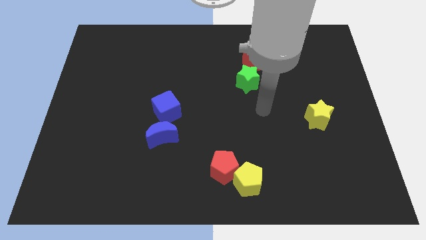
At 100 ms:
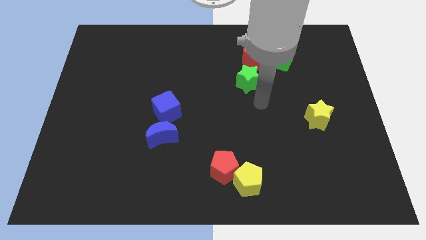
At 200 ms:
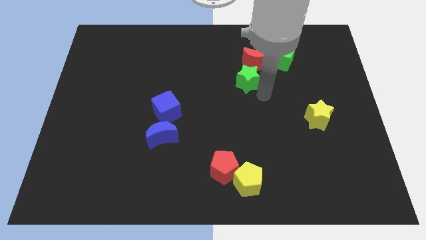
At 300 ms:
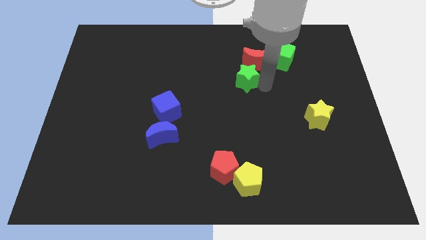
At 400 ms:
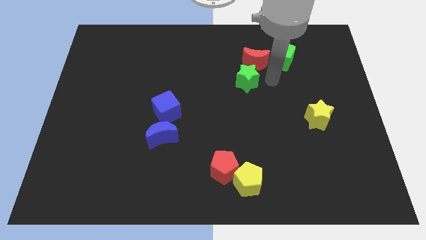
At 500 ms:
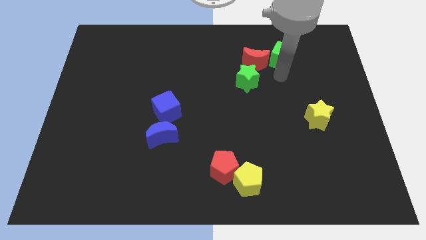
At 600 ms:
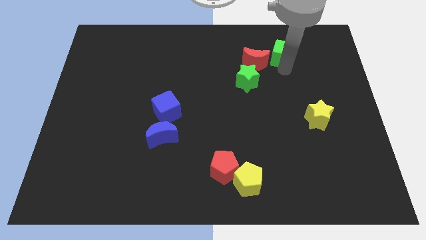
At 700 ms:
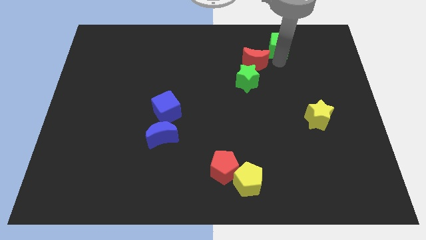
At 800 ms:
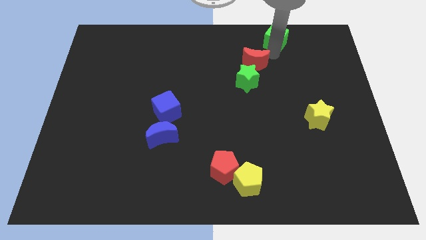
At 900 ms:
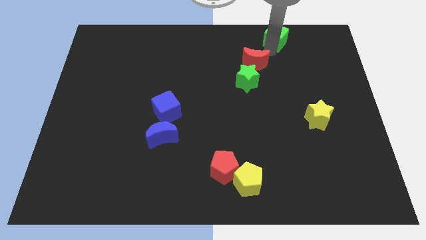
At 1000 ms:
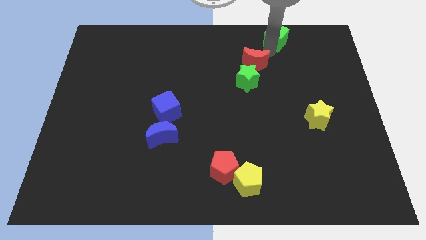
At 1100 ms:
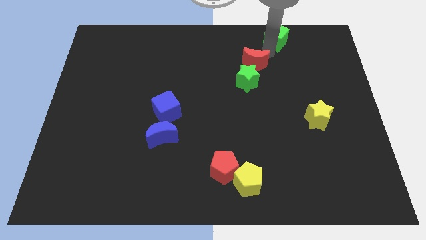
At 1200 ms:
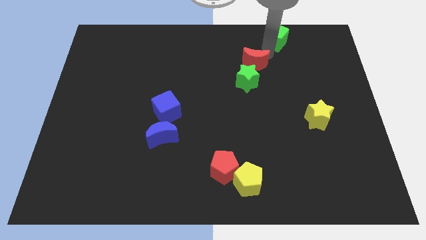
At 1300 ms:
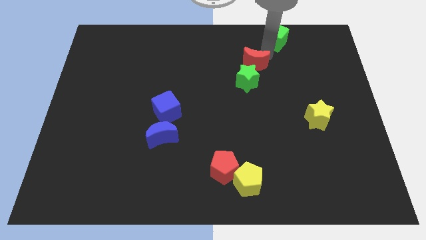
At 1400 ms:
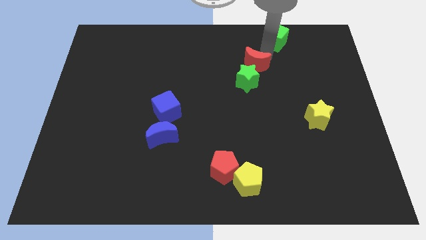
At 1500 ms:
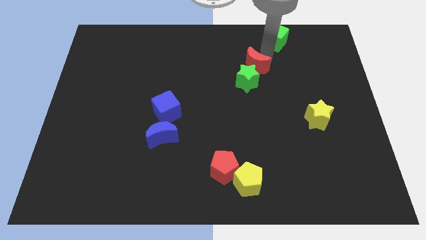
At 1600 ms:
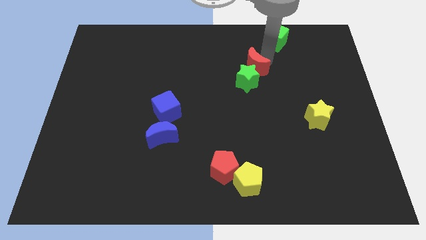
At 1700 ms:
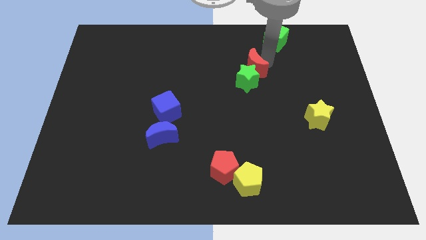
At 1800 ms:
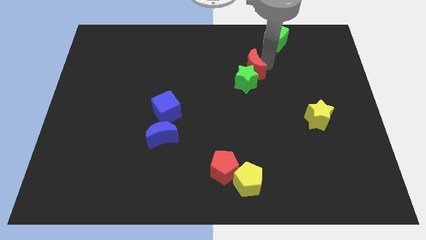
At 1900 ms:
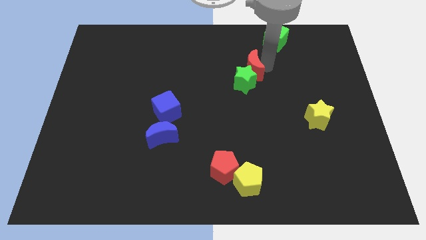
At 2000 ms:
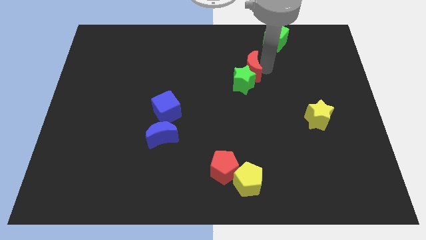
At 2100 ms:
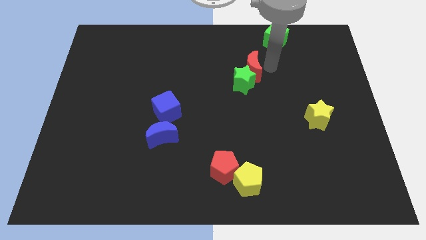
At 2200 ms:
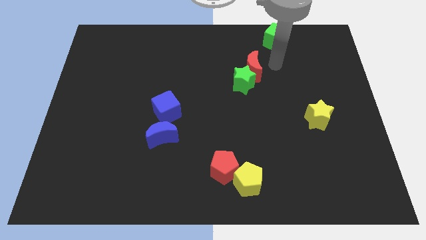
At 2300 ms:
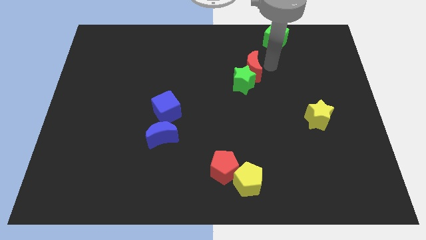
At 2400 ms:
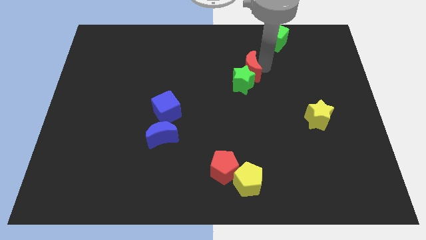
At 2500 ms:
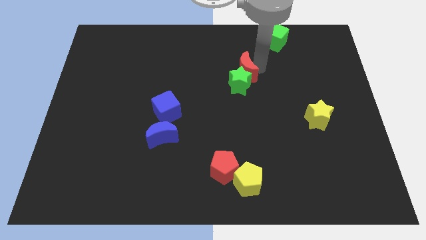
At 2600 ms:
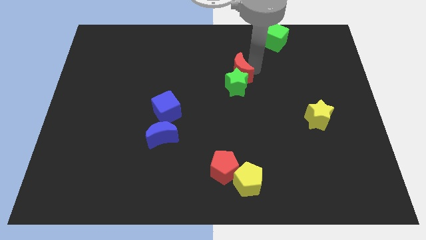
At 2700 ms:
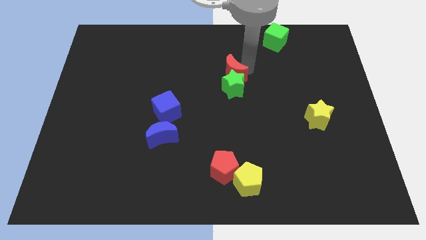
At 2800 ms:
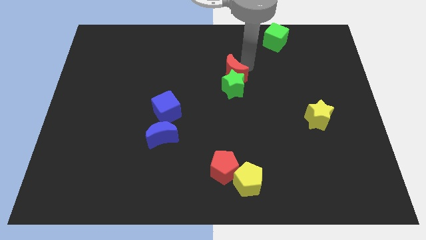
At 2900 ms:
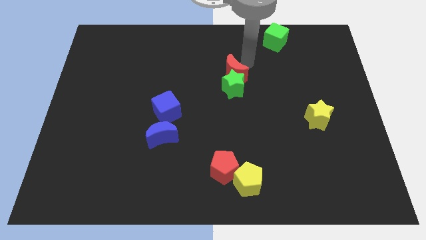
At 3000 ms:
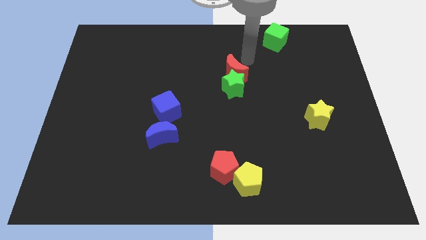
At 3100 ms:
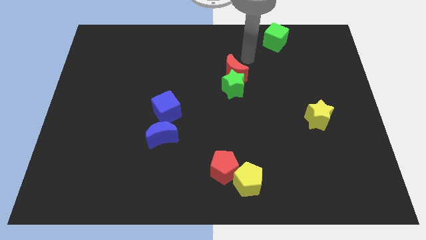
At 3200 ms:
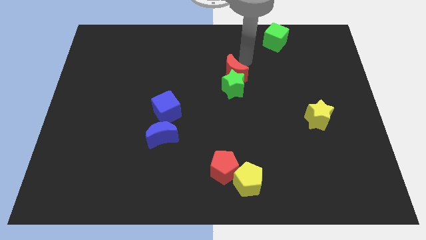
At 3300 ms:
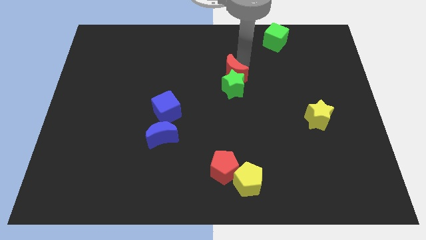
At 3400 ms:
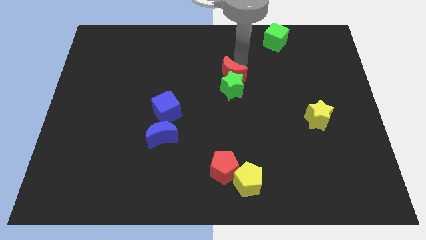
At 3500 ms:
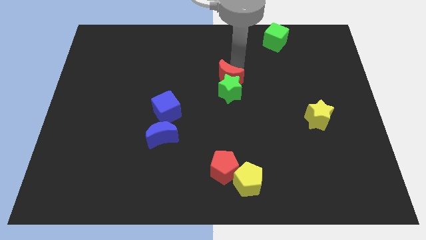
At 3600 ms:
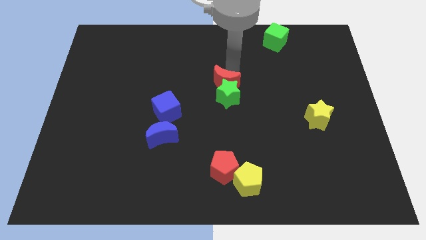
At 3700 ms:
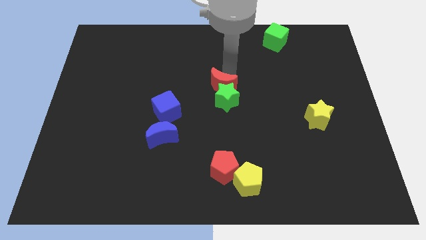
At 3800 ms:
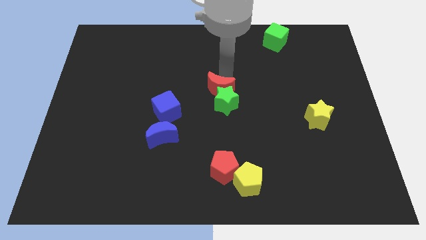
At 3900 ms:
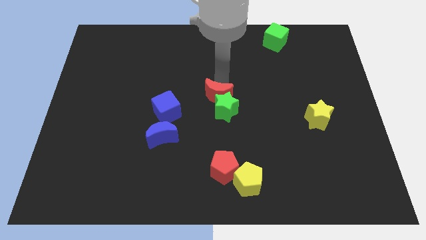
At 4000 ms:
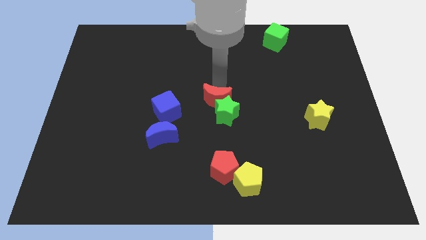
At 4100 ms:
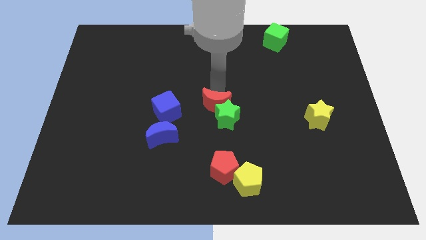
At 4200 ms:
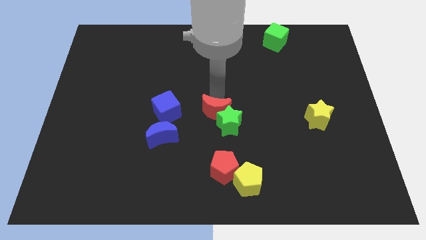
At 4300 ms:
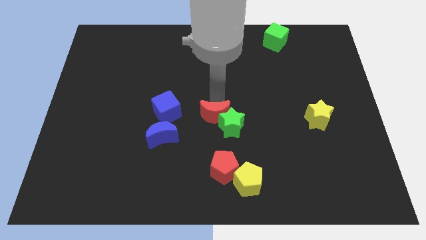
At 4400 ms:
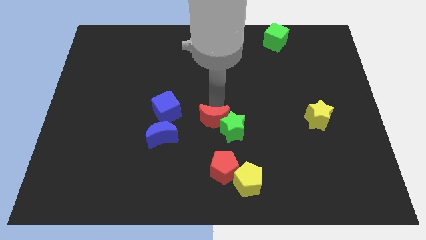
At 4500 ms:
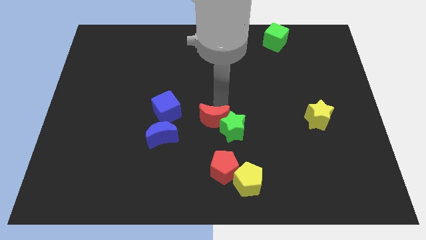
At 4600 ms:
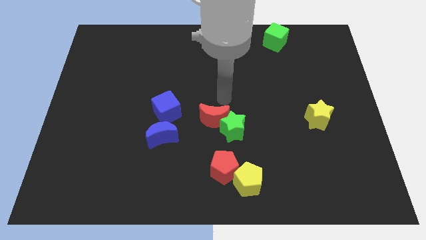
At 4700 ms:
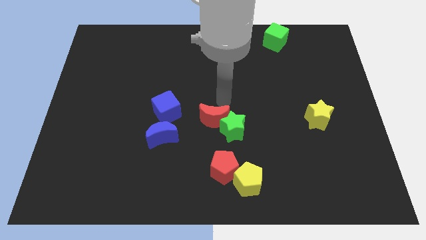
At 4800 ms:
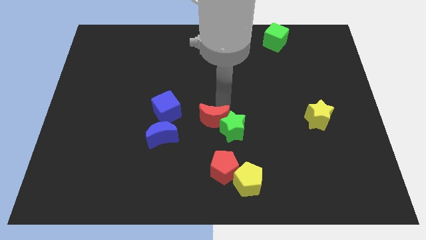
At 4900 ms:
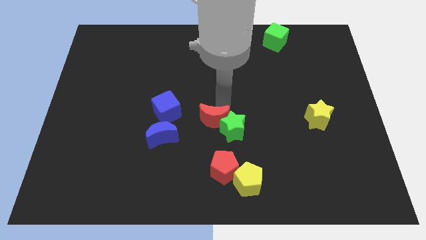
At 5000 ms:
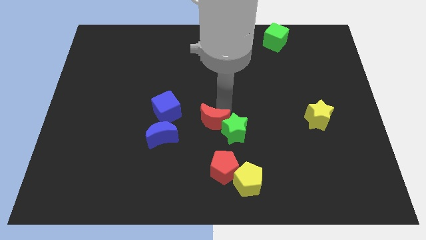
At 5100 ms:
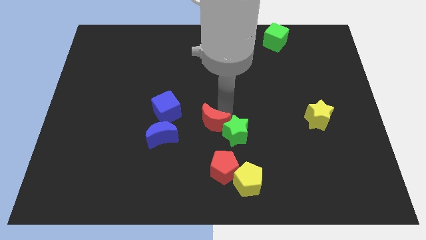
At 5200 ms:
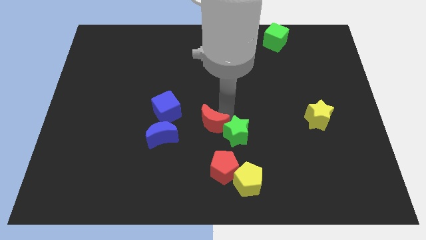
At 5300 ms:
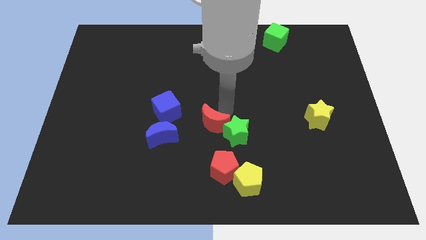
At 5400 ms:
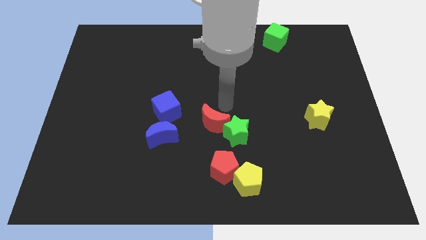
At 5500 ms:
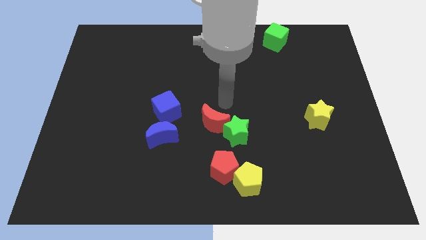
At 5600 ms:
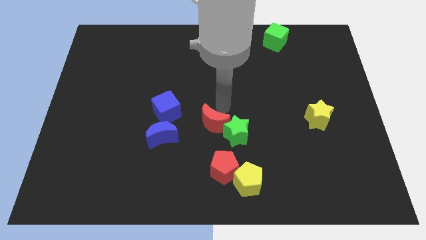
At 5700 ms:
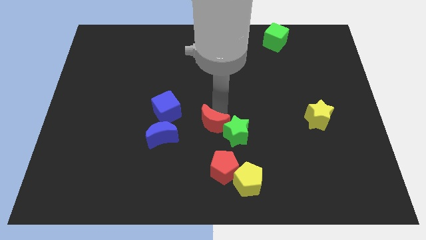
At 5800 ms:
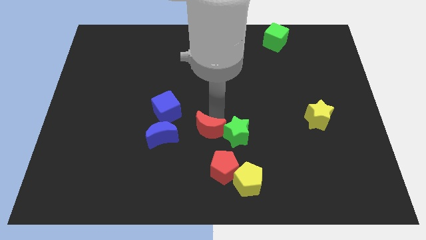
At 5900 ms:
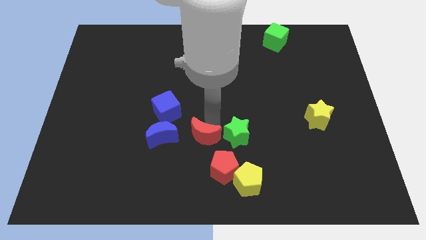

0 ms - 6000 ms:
move the red moon to the top left of the red pentagon

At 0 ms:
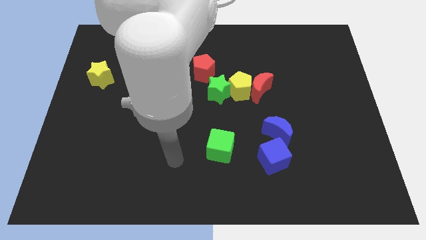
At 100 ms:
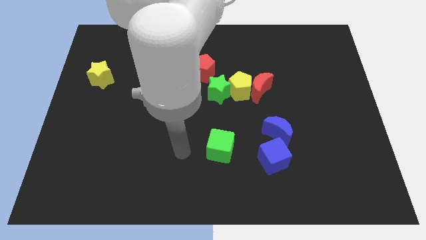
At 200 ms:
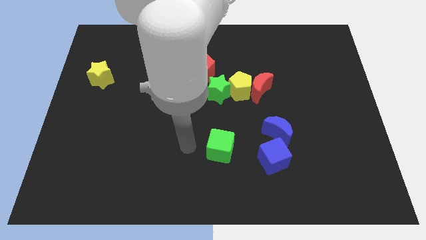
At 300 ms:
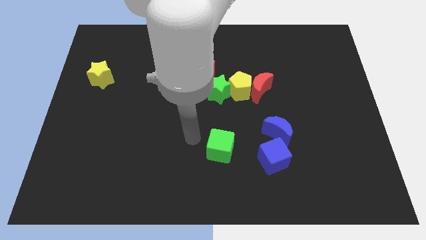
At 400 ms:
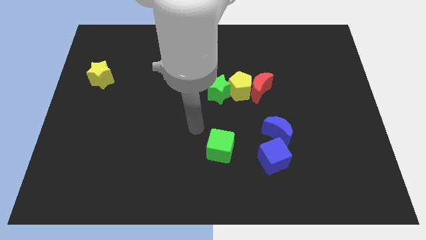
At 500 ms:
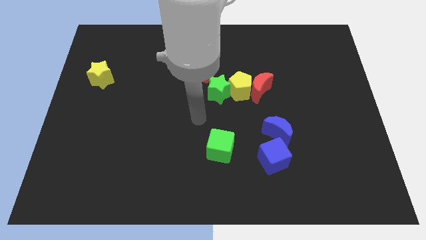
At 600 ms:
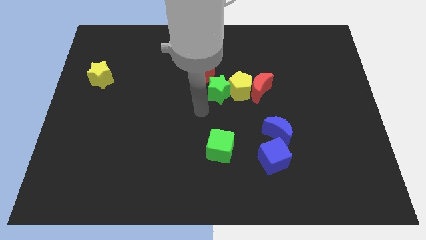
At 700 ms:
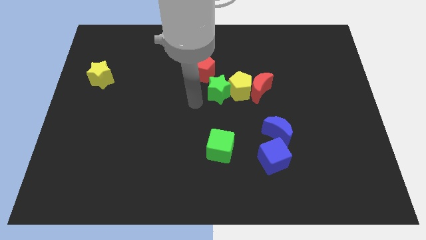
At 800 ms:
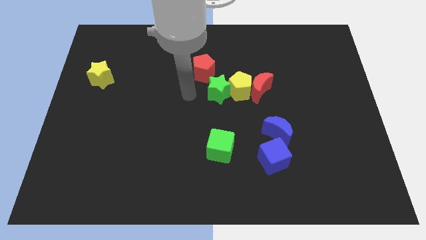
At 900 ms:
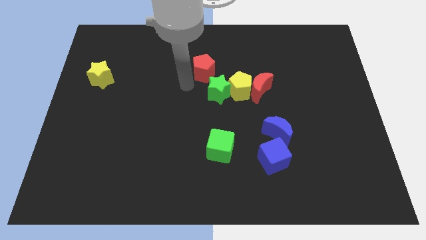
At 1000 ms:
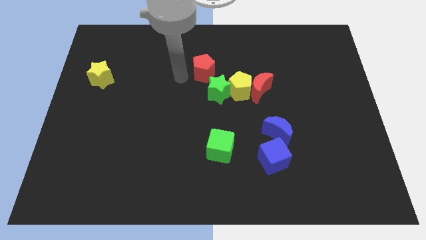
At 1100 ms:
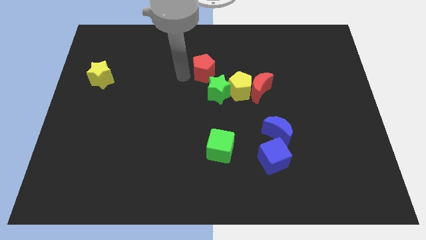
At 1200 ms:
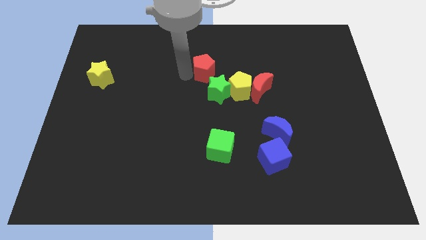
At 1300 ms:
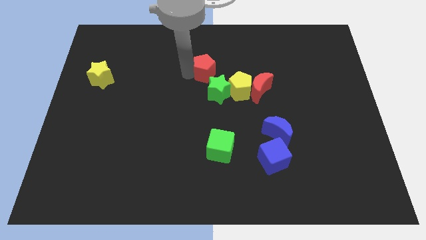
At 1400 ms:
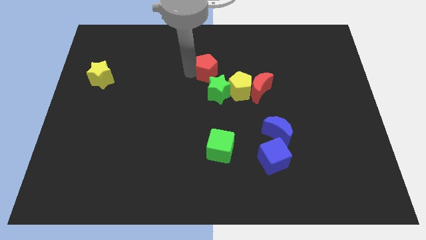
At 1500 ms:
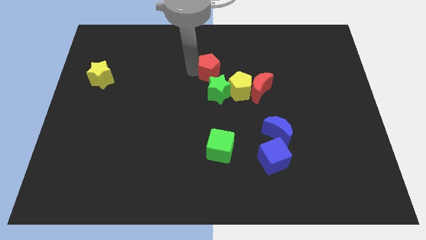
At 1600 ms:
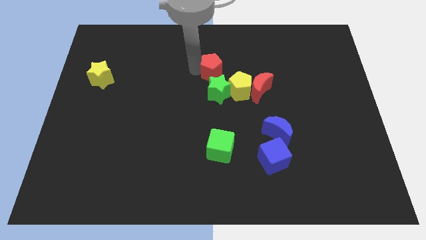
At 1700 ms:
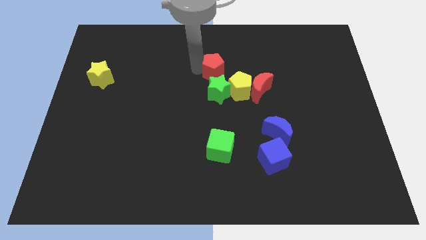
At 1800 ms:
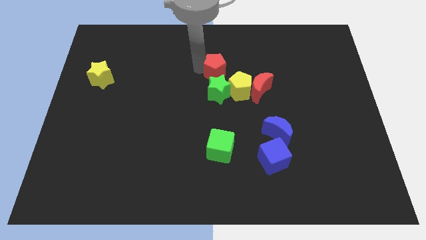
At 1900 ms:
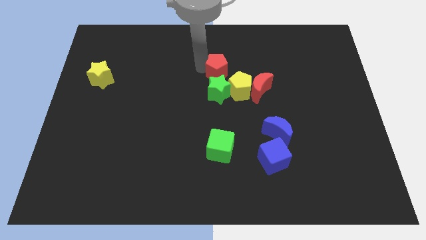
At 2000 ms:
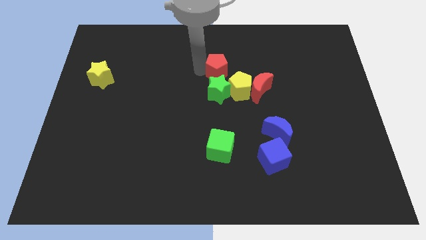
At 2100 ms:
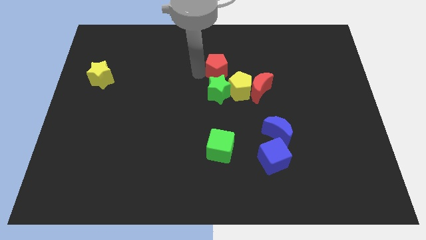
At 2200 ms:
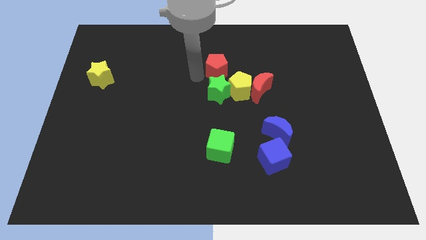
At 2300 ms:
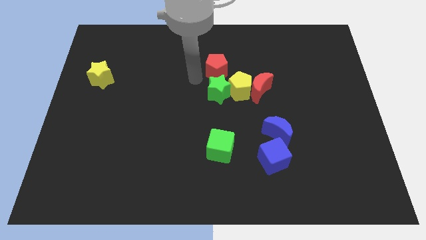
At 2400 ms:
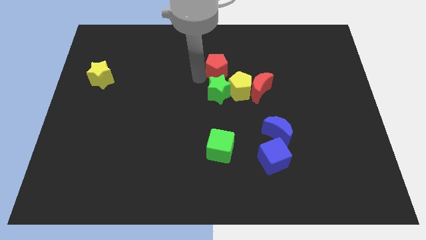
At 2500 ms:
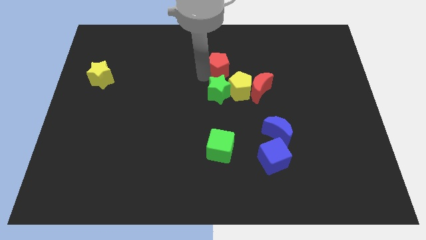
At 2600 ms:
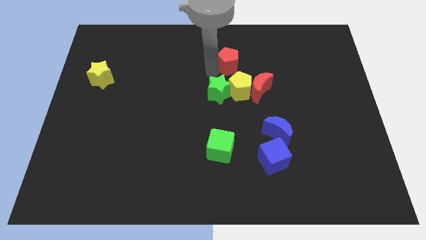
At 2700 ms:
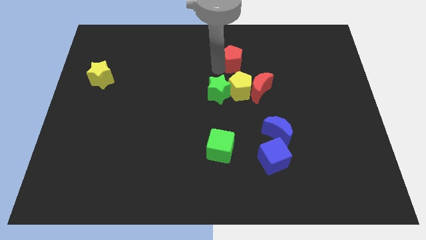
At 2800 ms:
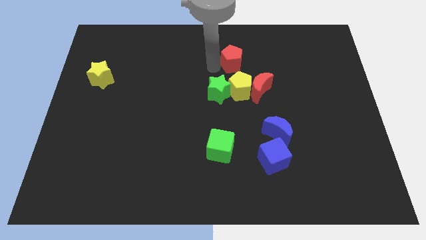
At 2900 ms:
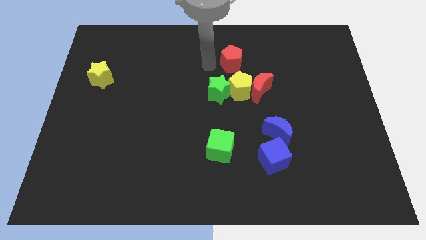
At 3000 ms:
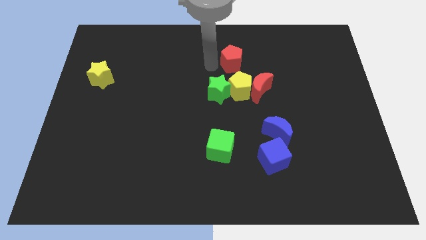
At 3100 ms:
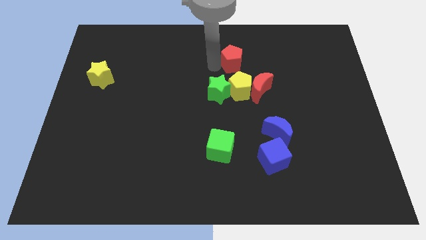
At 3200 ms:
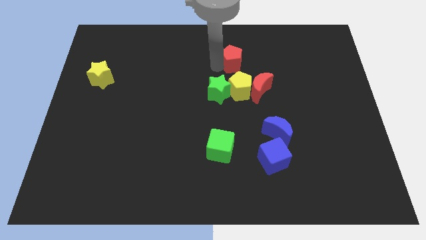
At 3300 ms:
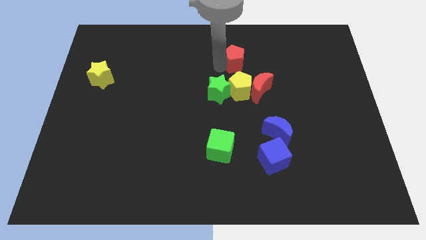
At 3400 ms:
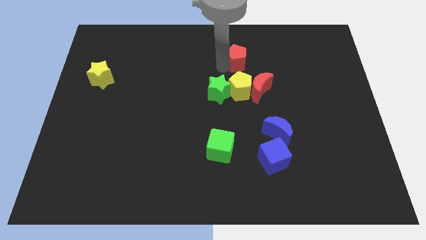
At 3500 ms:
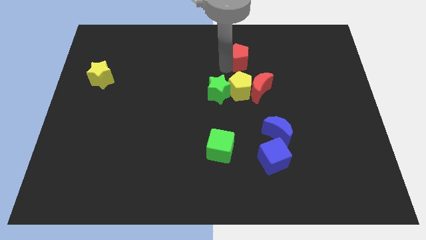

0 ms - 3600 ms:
move the red pentagon above the red moon
